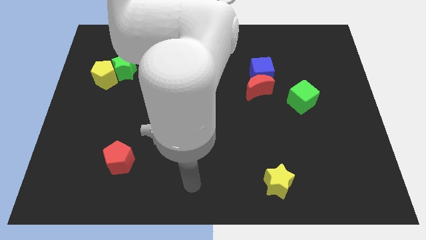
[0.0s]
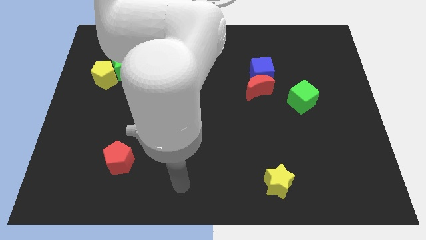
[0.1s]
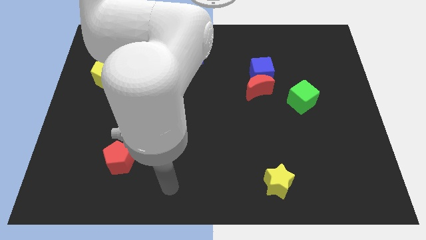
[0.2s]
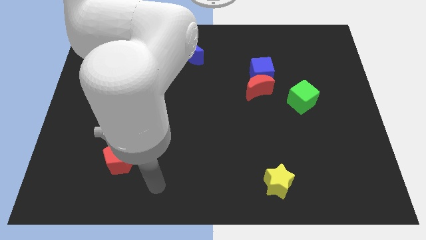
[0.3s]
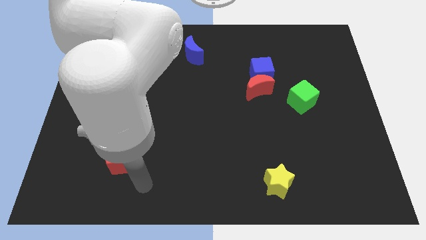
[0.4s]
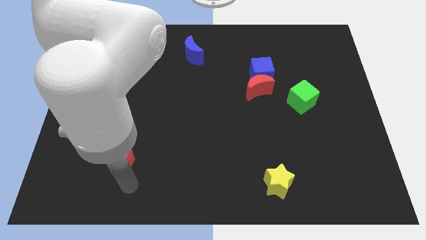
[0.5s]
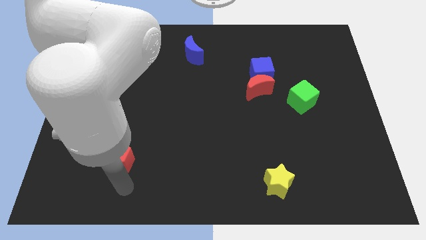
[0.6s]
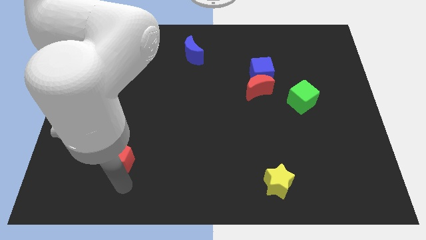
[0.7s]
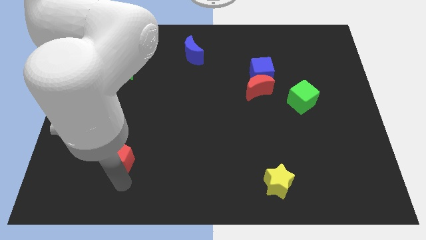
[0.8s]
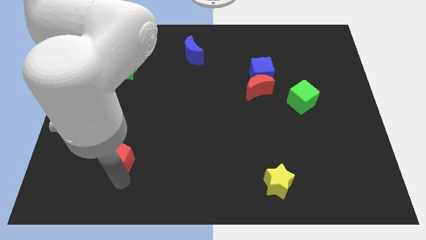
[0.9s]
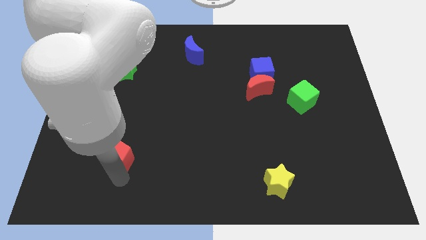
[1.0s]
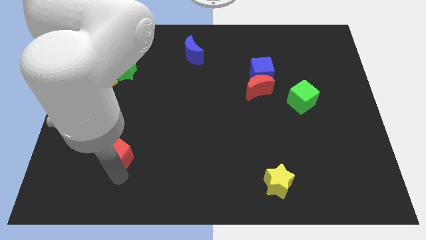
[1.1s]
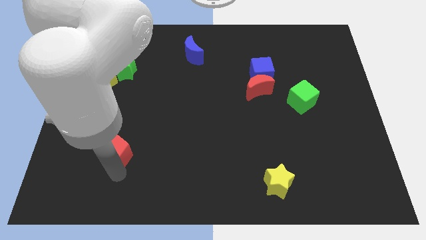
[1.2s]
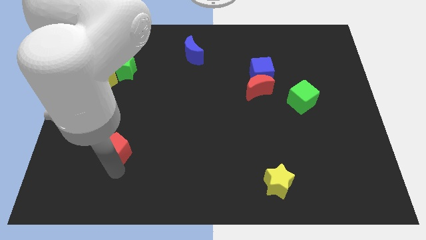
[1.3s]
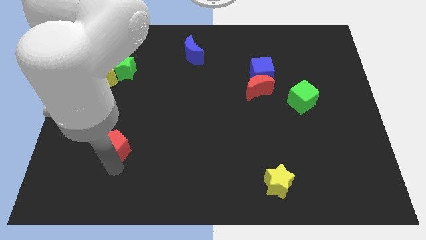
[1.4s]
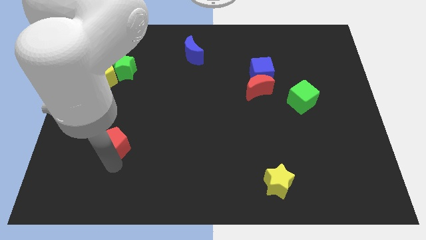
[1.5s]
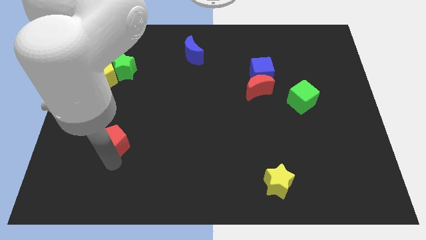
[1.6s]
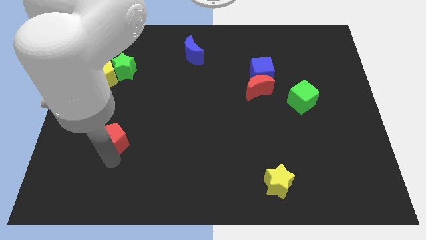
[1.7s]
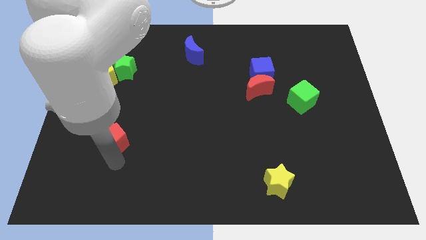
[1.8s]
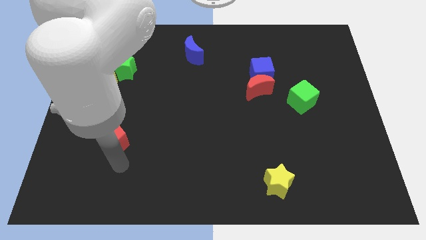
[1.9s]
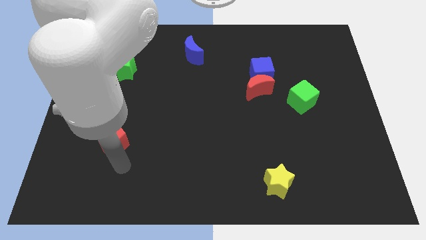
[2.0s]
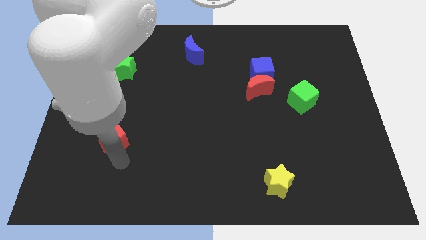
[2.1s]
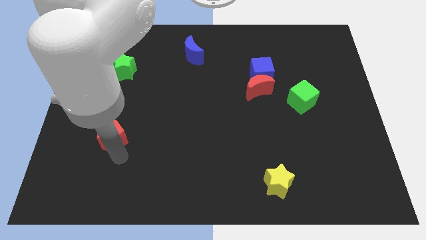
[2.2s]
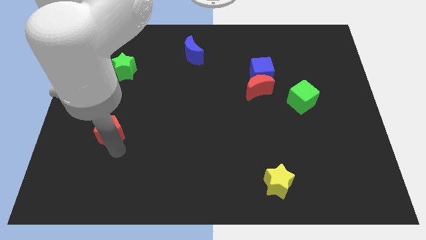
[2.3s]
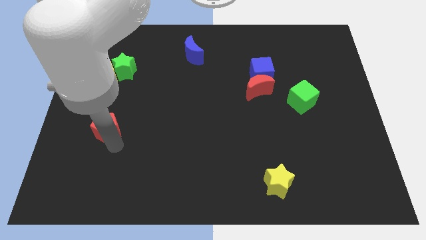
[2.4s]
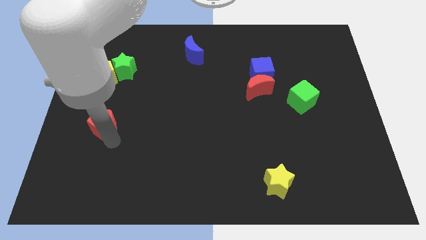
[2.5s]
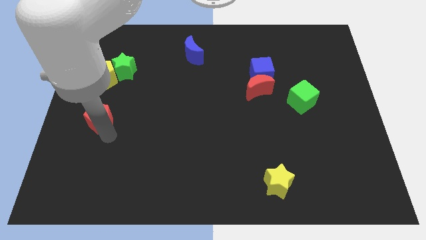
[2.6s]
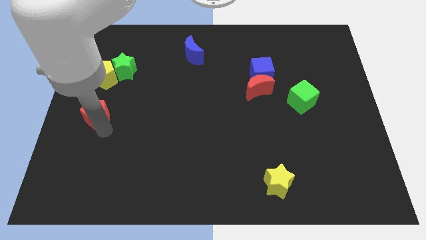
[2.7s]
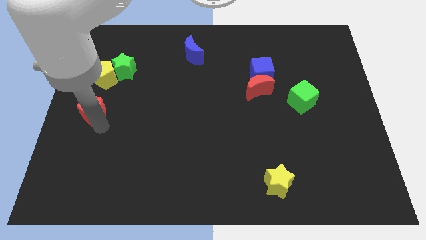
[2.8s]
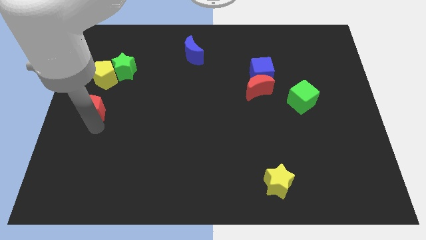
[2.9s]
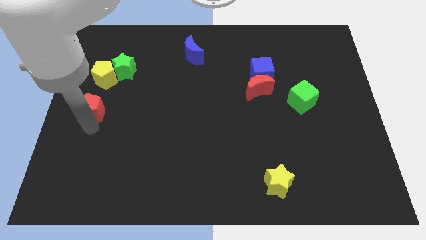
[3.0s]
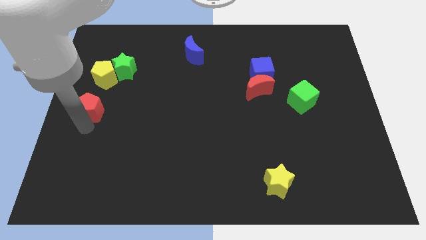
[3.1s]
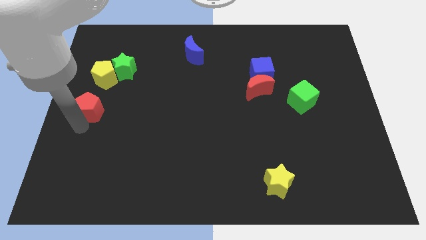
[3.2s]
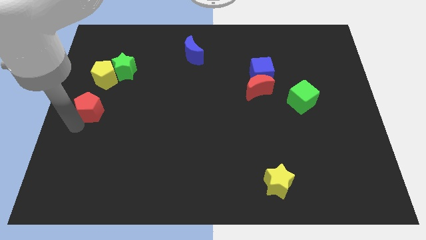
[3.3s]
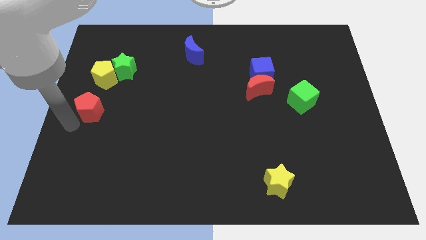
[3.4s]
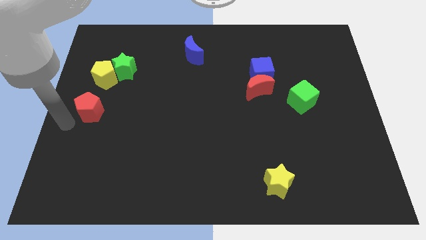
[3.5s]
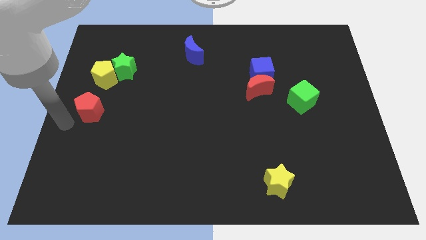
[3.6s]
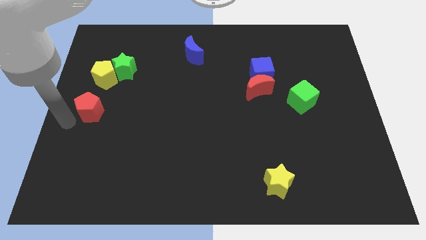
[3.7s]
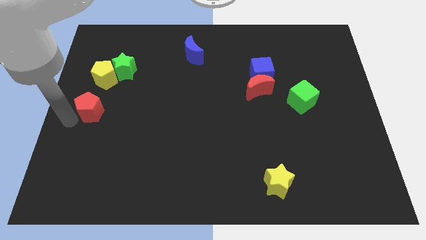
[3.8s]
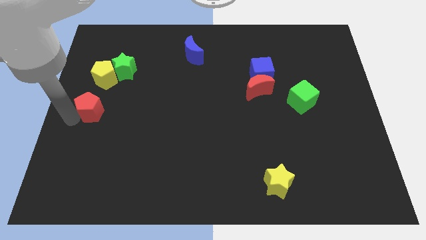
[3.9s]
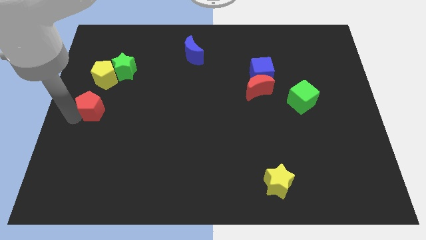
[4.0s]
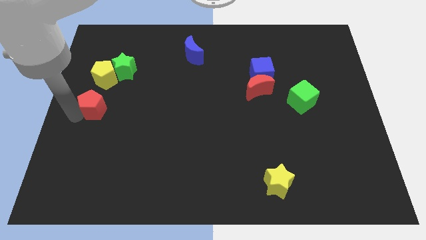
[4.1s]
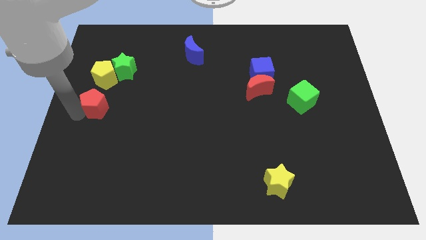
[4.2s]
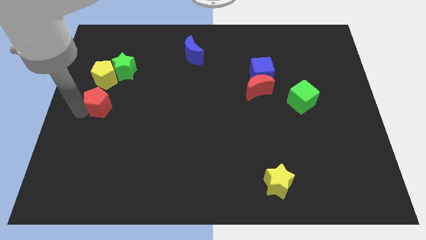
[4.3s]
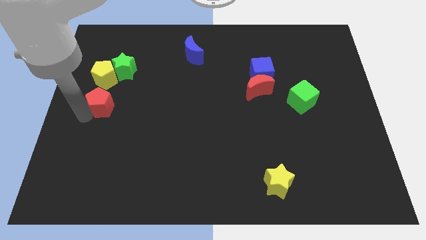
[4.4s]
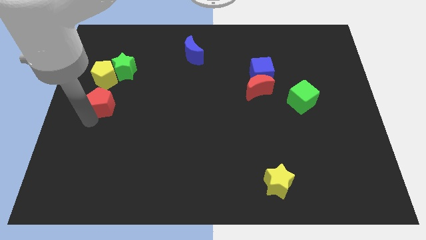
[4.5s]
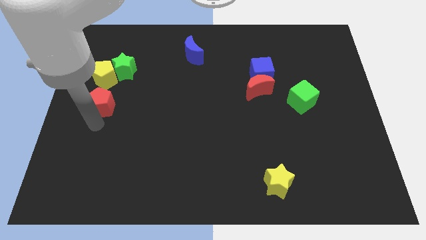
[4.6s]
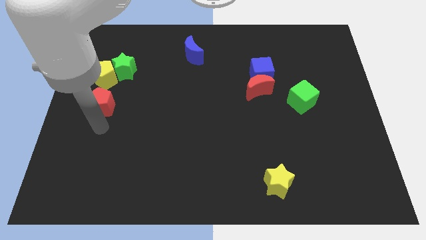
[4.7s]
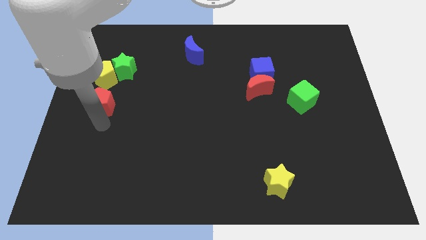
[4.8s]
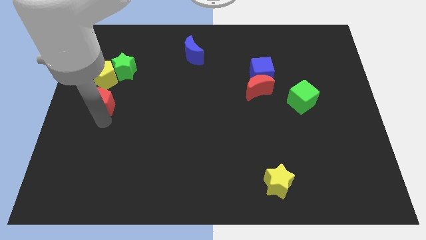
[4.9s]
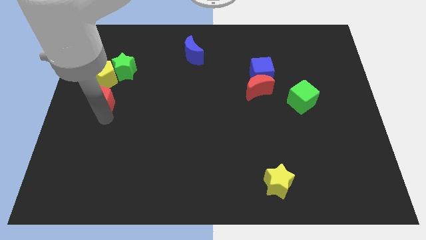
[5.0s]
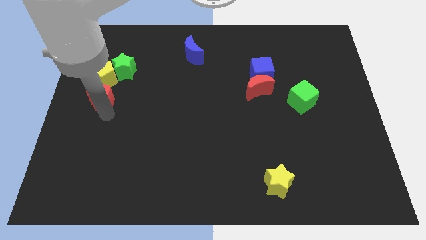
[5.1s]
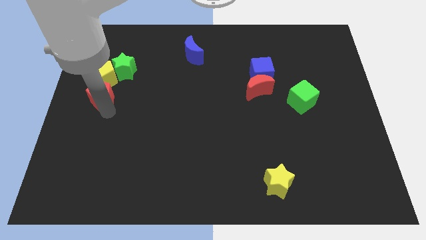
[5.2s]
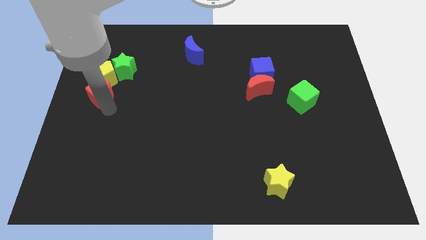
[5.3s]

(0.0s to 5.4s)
push the red pentagon next to the yellow pentagon

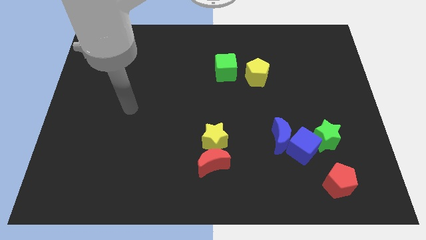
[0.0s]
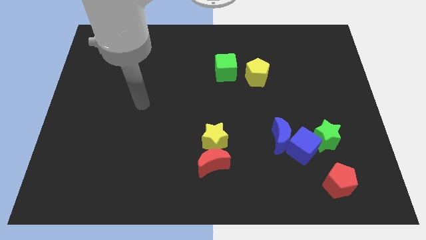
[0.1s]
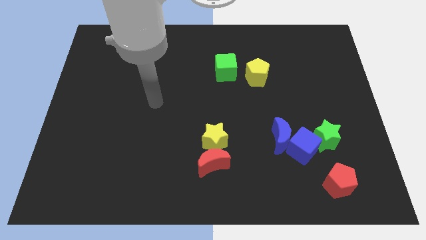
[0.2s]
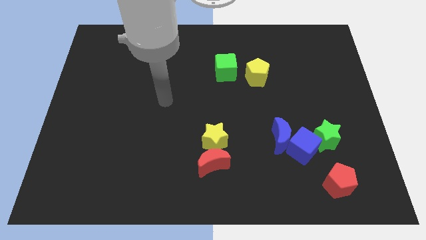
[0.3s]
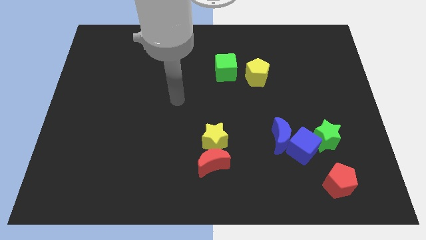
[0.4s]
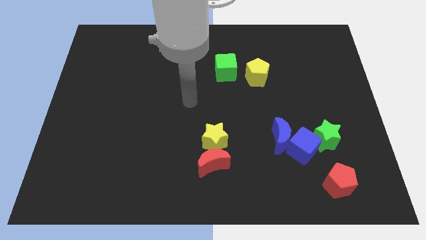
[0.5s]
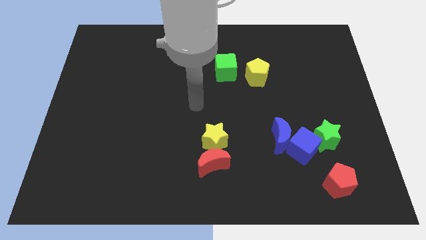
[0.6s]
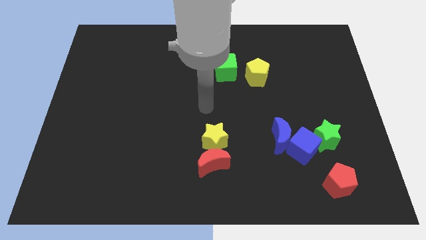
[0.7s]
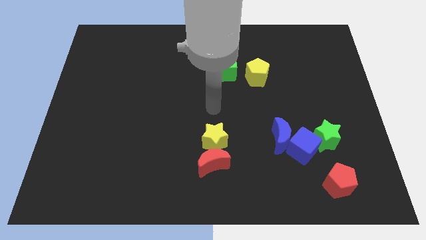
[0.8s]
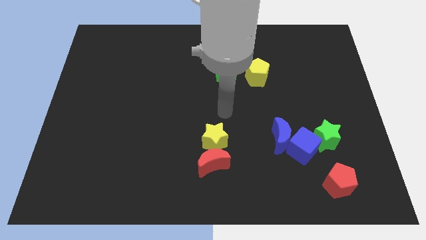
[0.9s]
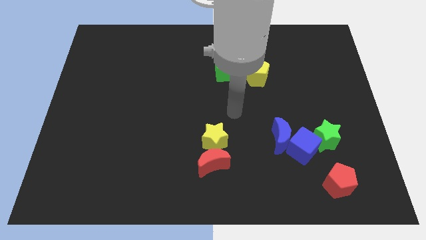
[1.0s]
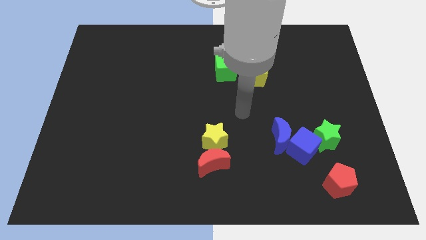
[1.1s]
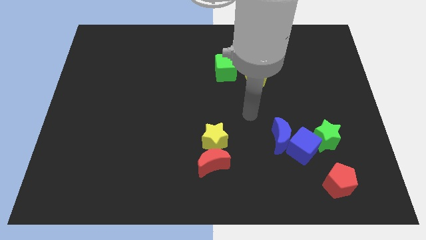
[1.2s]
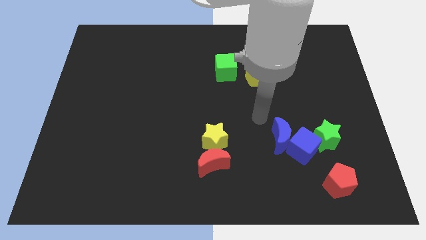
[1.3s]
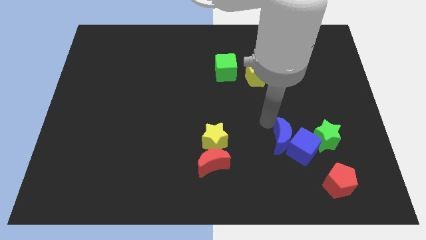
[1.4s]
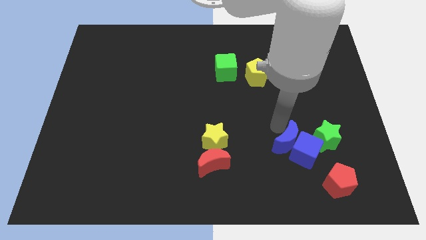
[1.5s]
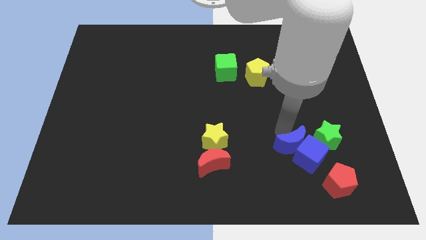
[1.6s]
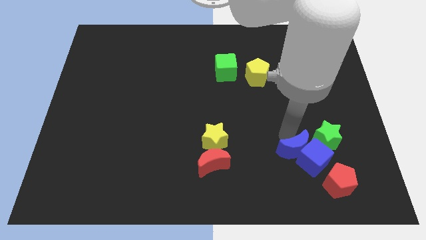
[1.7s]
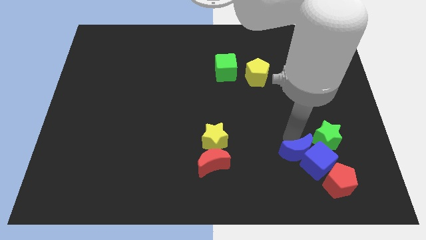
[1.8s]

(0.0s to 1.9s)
push the blue cube towards the red pentagon
